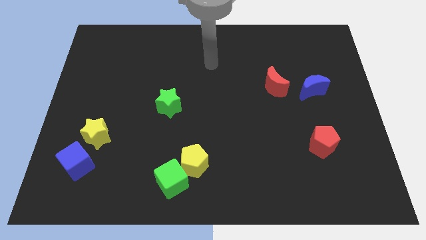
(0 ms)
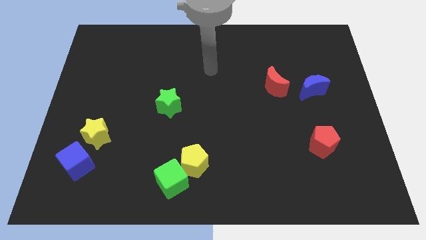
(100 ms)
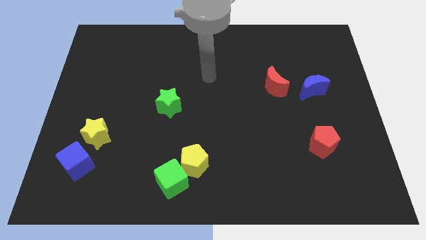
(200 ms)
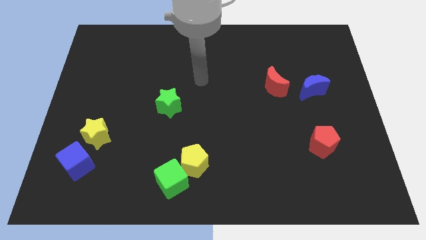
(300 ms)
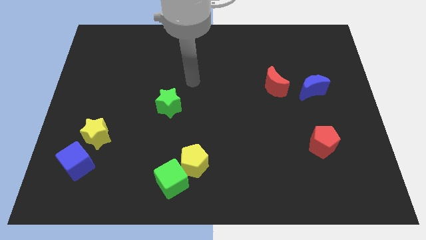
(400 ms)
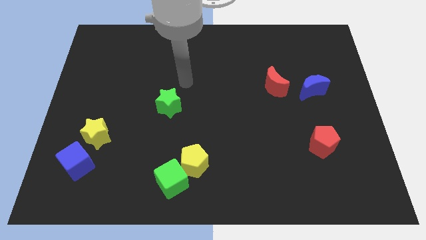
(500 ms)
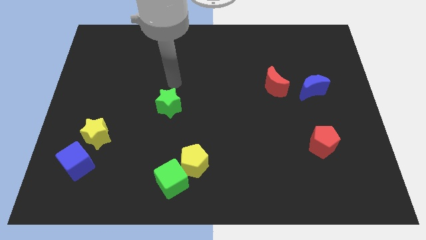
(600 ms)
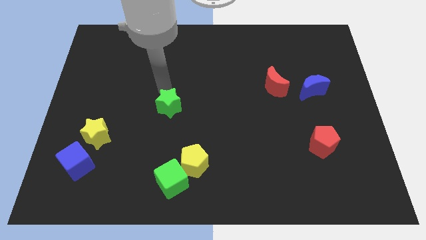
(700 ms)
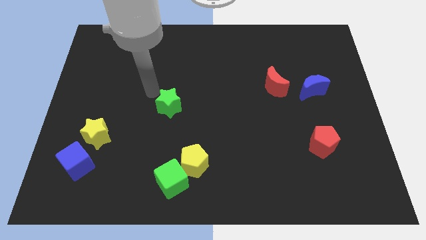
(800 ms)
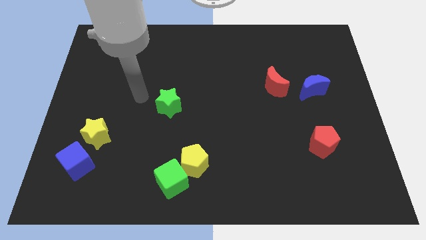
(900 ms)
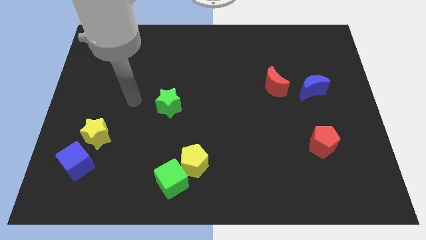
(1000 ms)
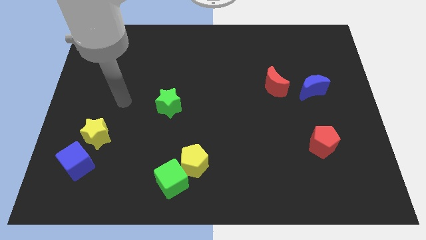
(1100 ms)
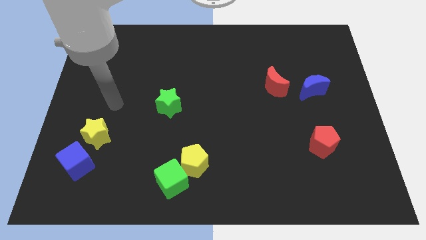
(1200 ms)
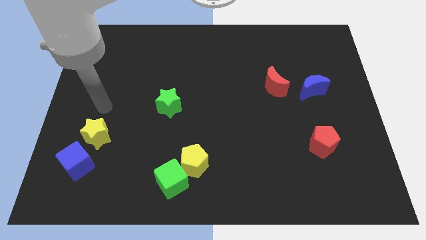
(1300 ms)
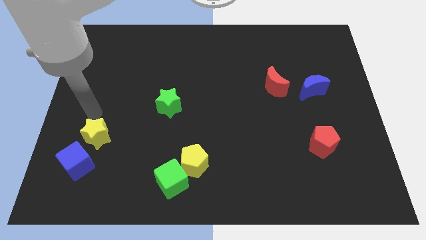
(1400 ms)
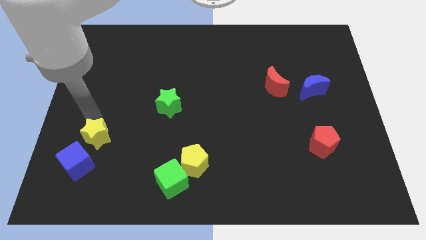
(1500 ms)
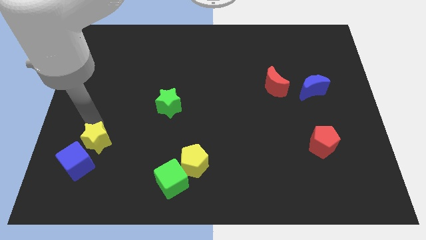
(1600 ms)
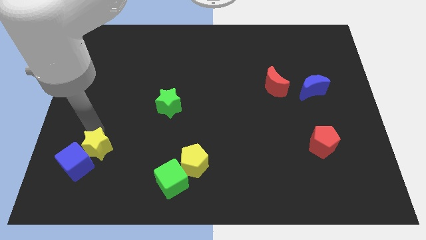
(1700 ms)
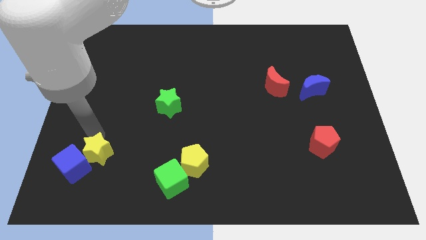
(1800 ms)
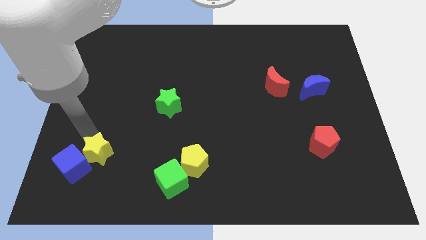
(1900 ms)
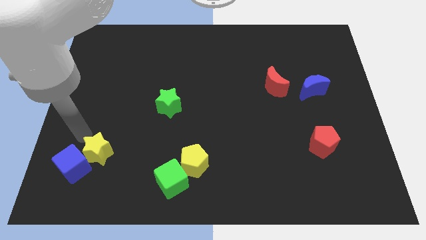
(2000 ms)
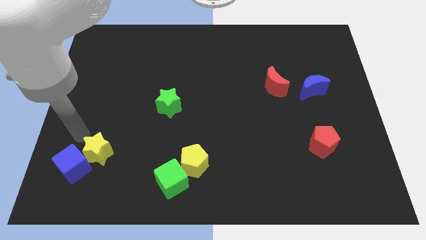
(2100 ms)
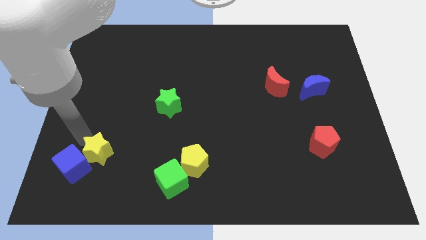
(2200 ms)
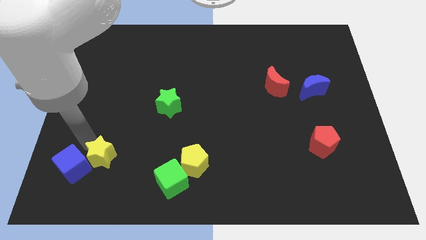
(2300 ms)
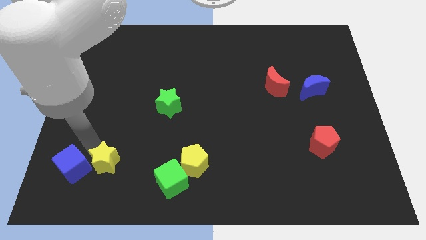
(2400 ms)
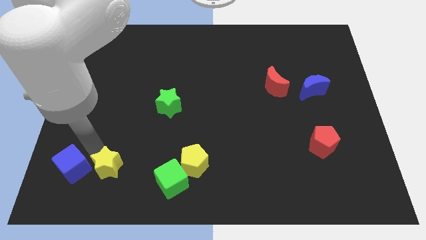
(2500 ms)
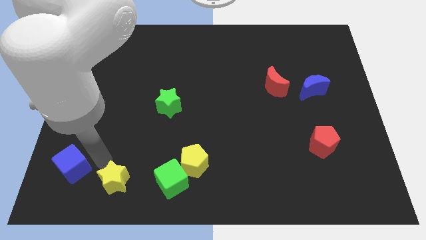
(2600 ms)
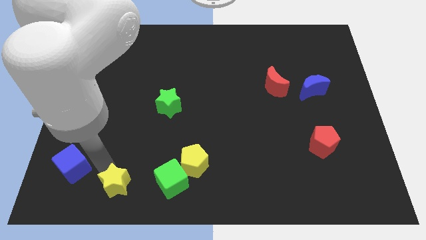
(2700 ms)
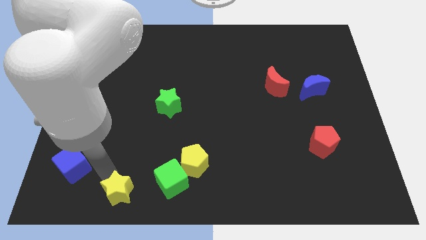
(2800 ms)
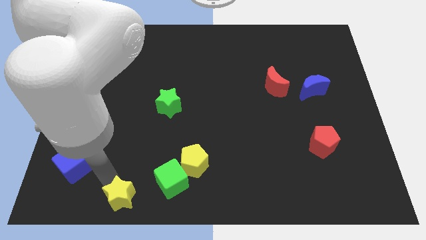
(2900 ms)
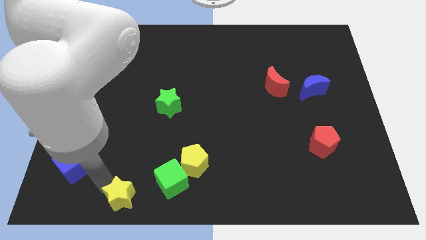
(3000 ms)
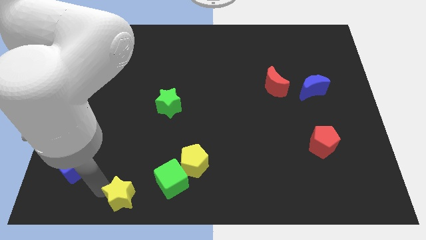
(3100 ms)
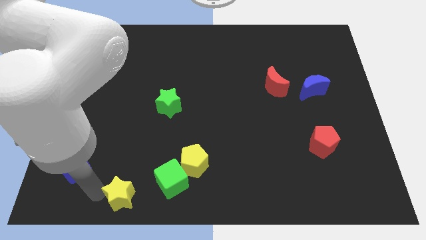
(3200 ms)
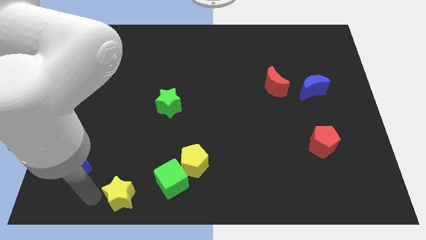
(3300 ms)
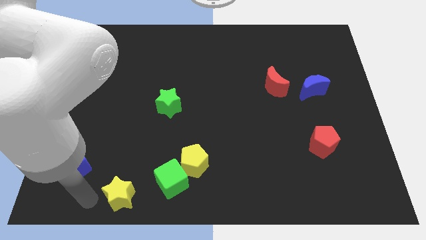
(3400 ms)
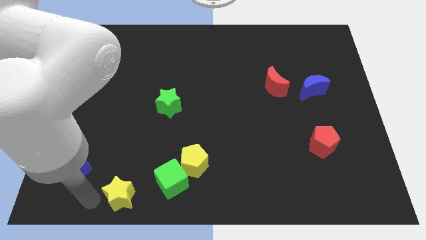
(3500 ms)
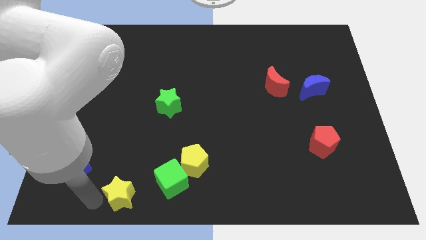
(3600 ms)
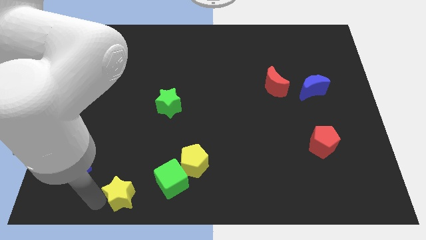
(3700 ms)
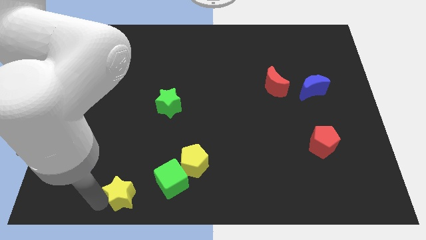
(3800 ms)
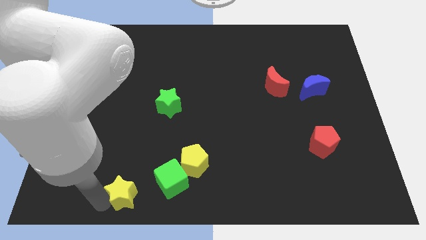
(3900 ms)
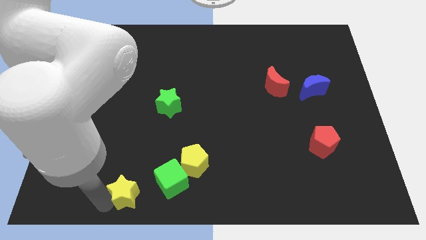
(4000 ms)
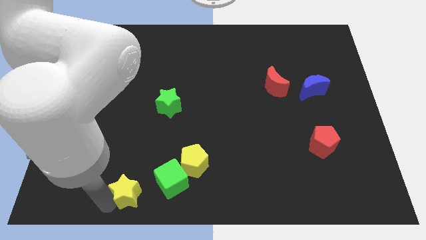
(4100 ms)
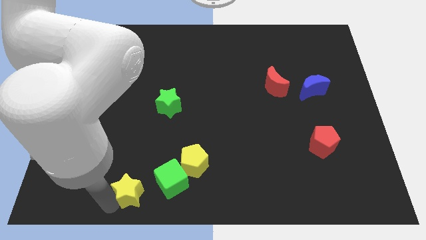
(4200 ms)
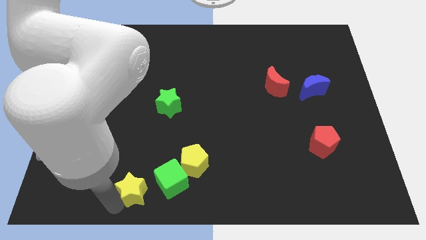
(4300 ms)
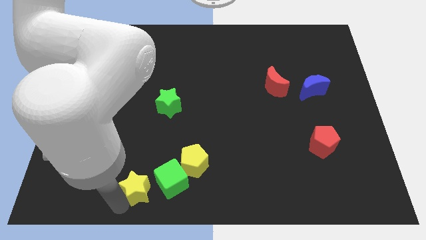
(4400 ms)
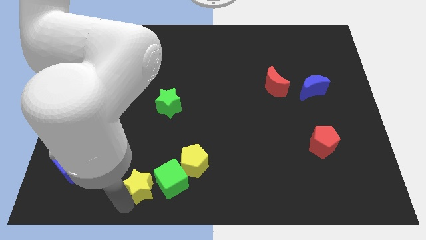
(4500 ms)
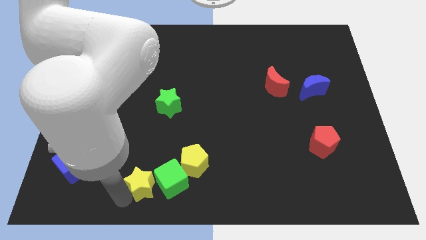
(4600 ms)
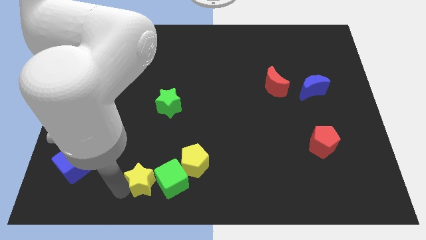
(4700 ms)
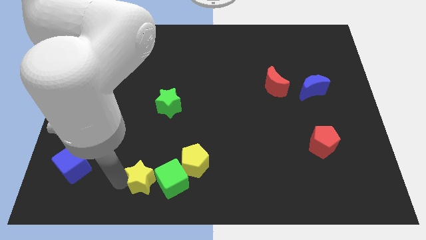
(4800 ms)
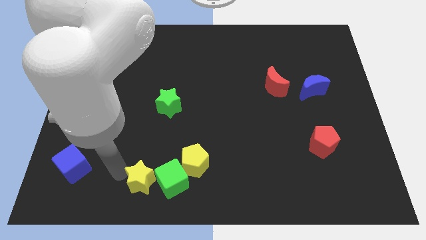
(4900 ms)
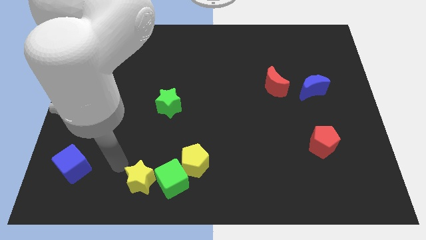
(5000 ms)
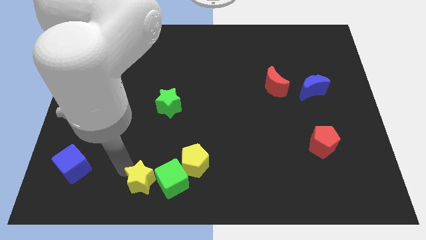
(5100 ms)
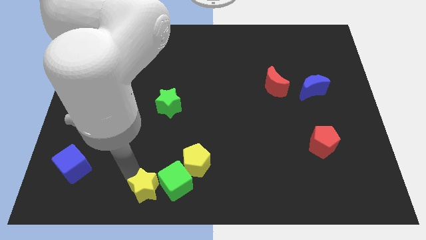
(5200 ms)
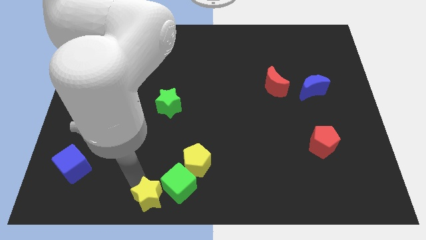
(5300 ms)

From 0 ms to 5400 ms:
push the yellow star to the bottom

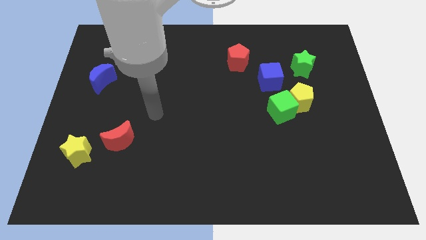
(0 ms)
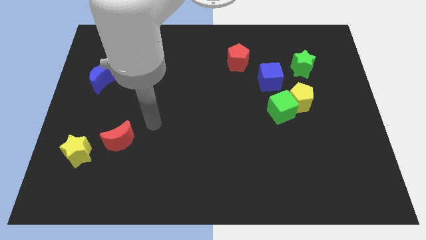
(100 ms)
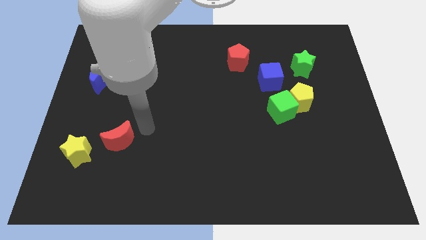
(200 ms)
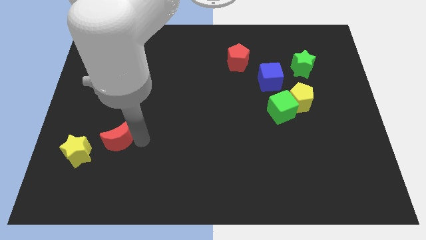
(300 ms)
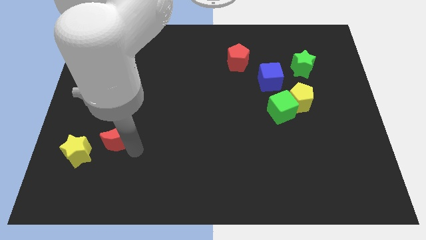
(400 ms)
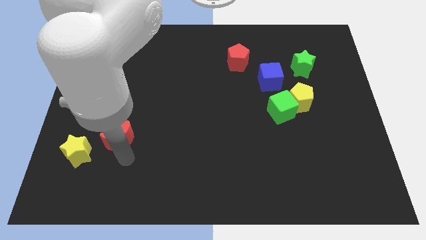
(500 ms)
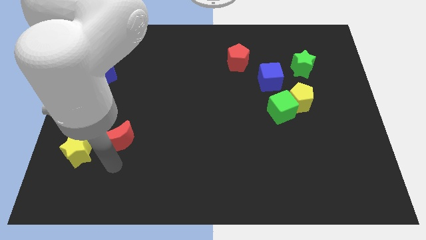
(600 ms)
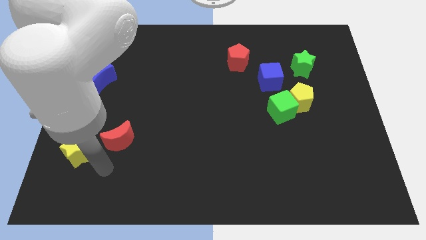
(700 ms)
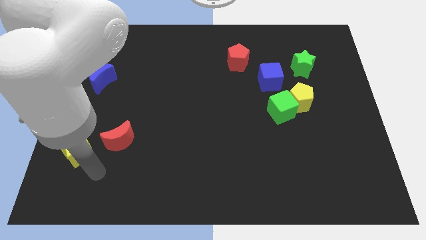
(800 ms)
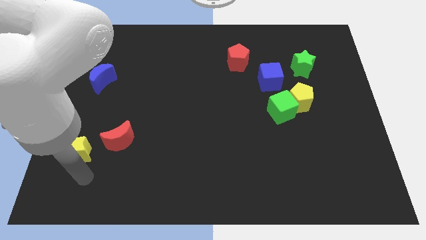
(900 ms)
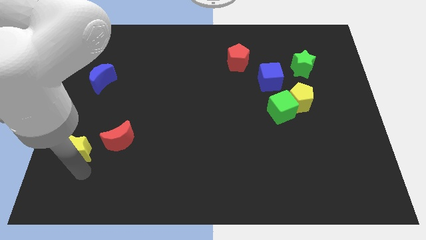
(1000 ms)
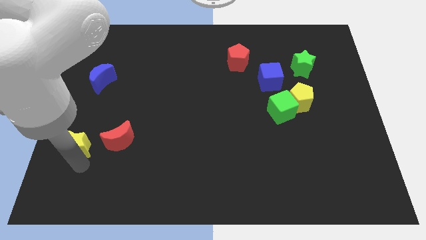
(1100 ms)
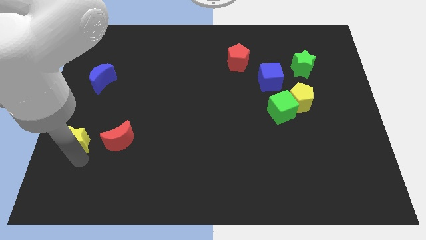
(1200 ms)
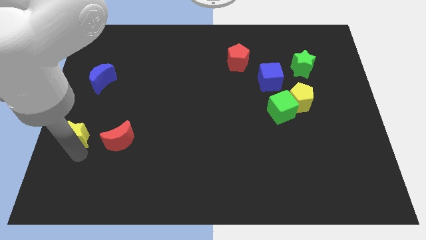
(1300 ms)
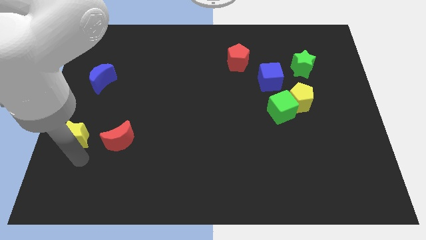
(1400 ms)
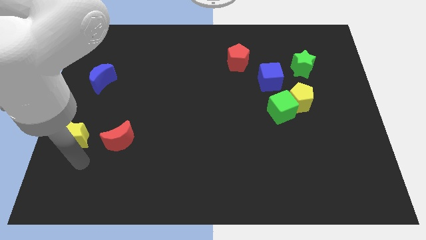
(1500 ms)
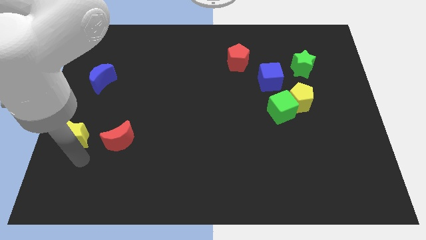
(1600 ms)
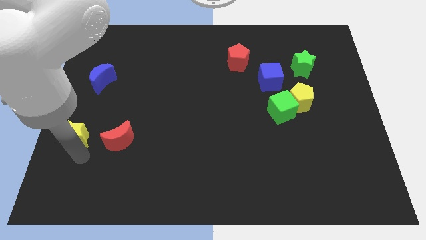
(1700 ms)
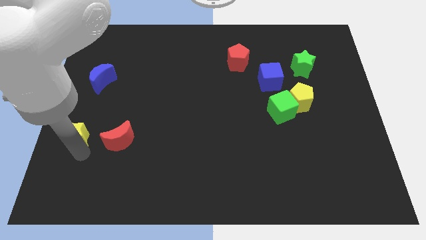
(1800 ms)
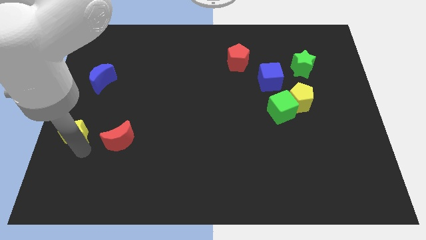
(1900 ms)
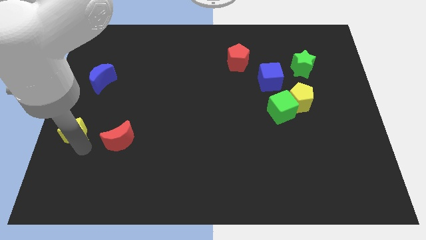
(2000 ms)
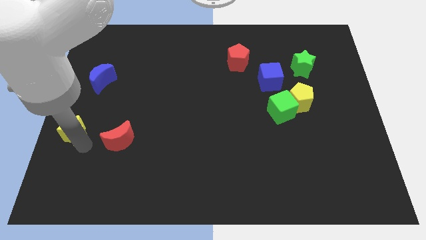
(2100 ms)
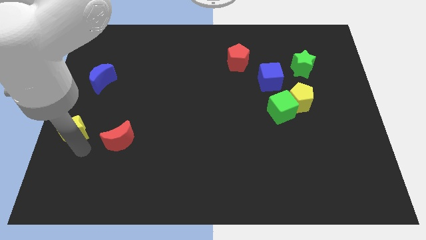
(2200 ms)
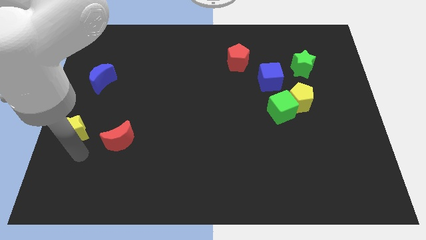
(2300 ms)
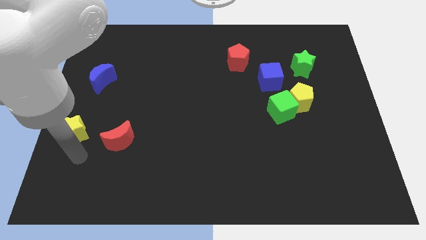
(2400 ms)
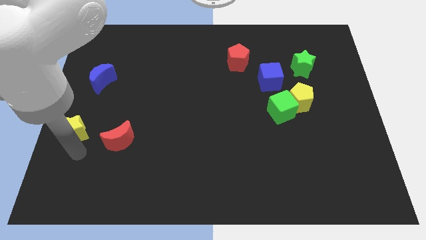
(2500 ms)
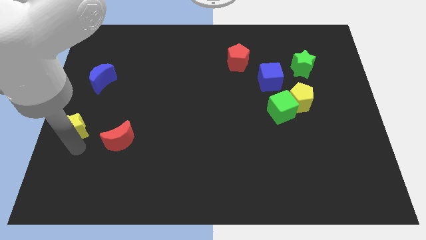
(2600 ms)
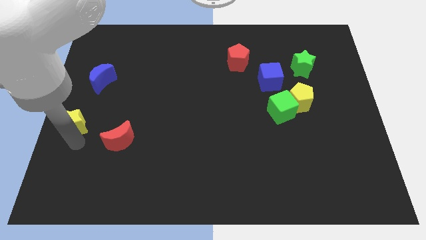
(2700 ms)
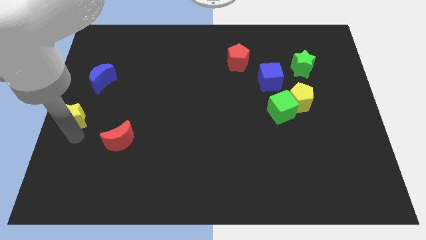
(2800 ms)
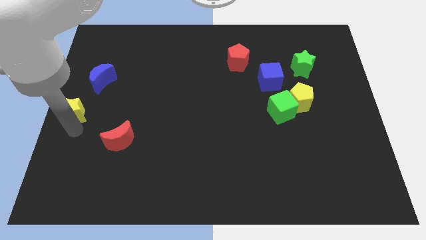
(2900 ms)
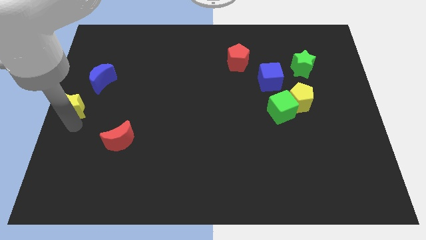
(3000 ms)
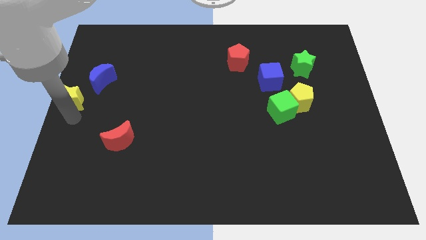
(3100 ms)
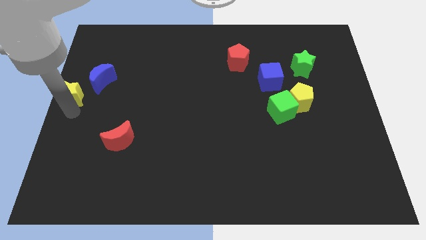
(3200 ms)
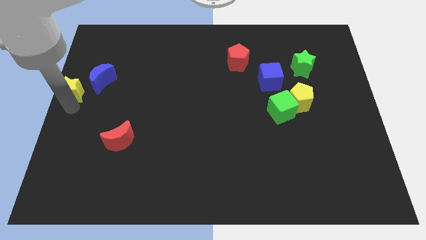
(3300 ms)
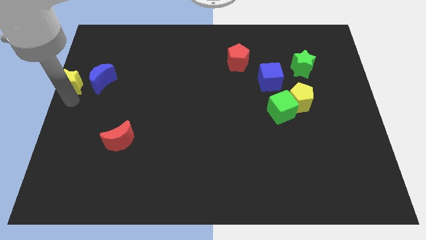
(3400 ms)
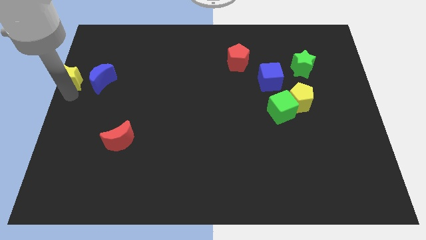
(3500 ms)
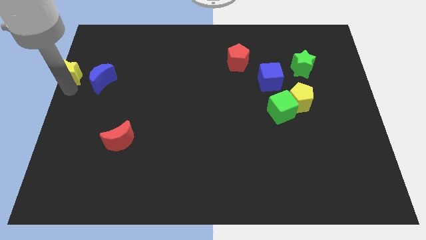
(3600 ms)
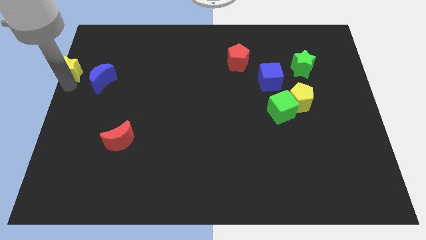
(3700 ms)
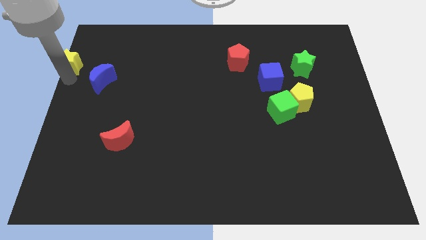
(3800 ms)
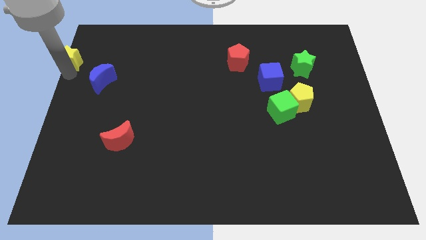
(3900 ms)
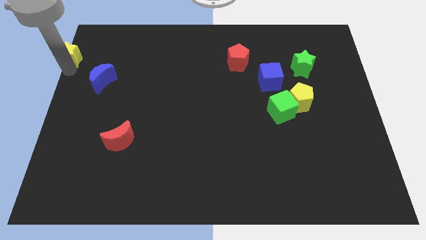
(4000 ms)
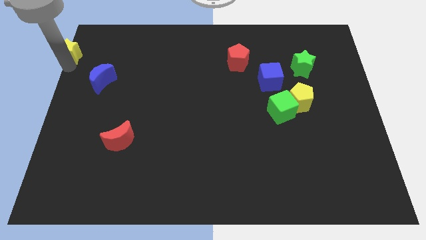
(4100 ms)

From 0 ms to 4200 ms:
put the yellow star to the top left
